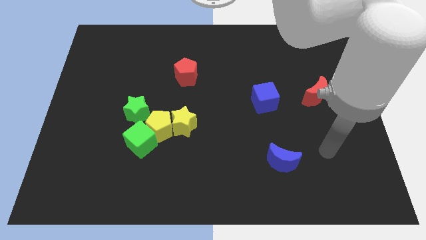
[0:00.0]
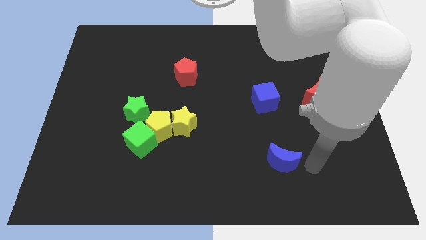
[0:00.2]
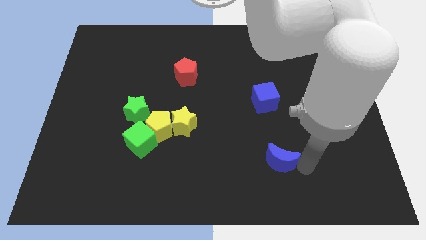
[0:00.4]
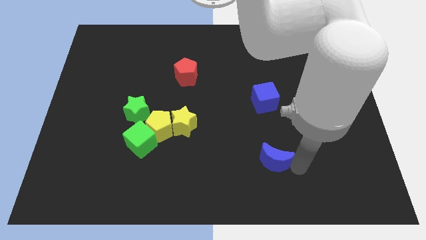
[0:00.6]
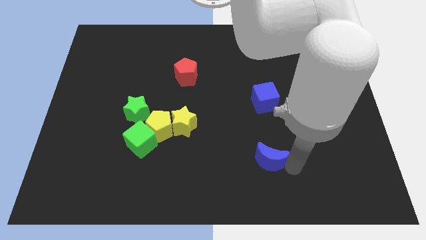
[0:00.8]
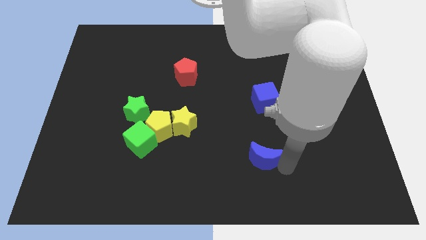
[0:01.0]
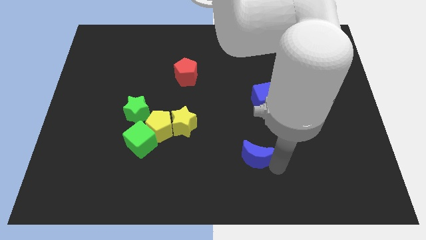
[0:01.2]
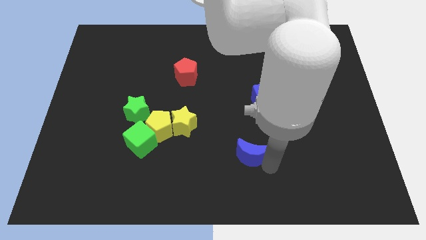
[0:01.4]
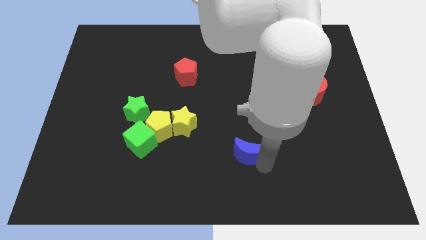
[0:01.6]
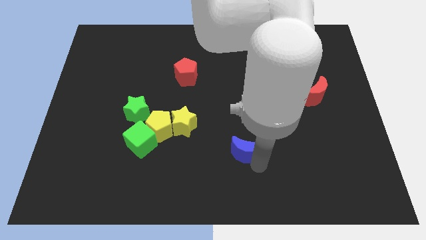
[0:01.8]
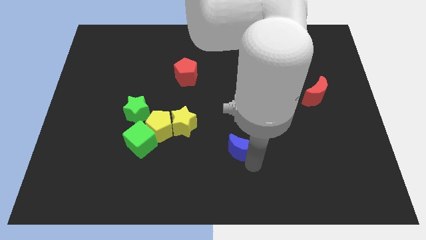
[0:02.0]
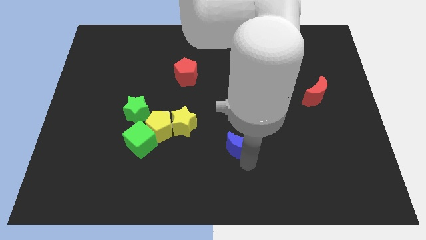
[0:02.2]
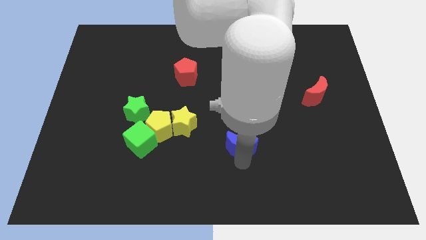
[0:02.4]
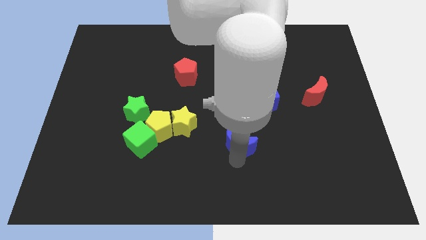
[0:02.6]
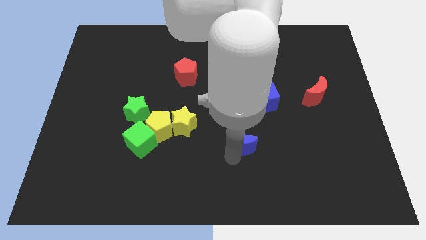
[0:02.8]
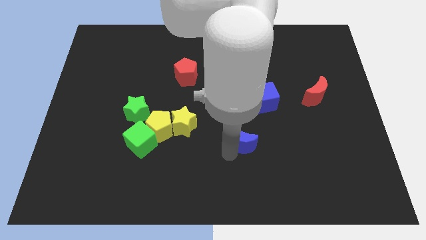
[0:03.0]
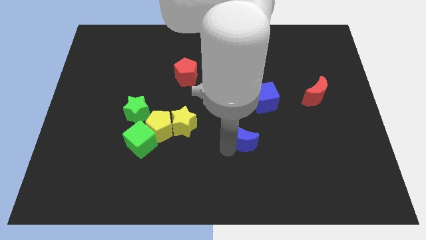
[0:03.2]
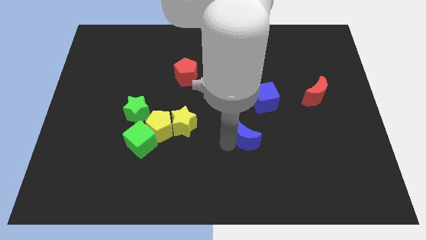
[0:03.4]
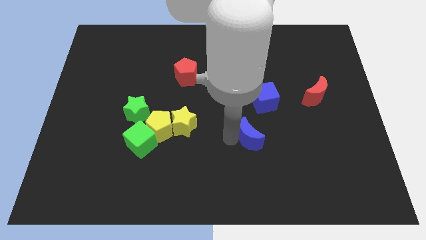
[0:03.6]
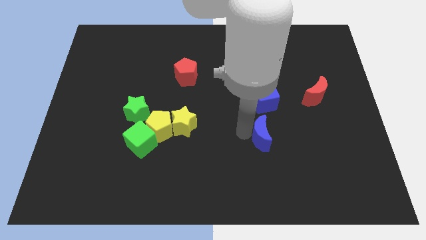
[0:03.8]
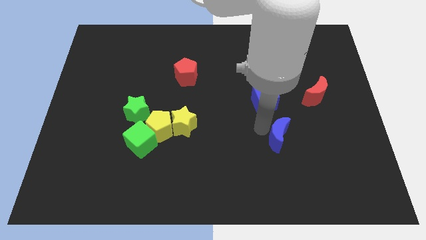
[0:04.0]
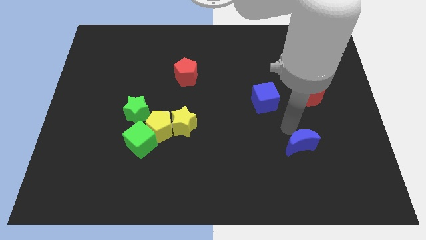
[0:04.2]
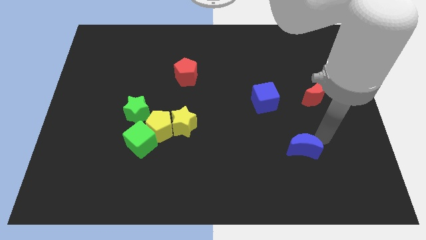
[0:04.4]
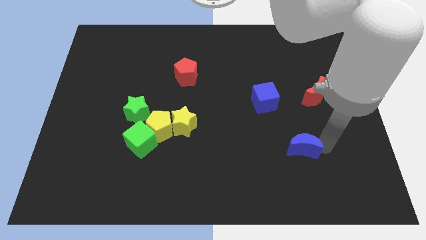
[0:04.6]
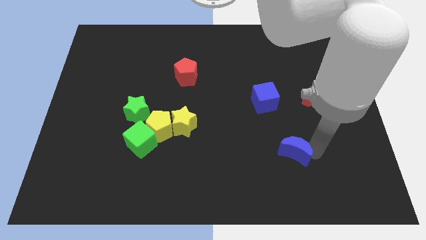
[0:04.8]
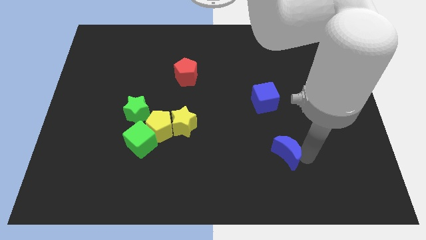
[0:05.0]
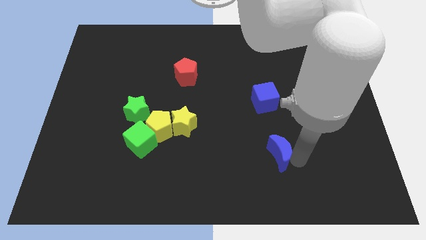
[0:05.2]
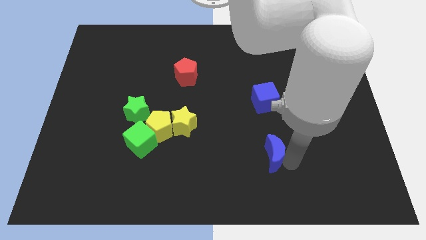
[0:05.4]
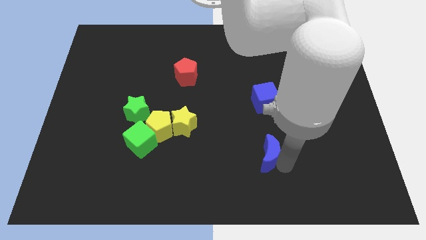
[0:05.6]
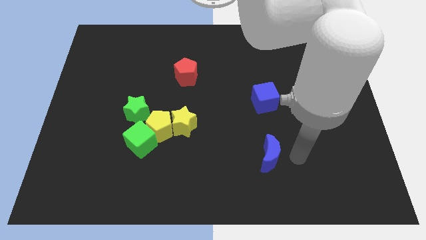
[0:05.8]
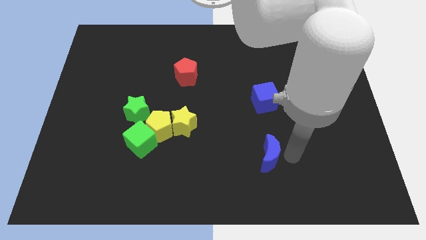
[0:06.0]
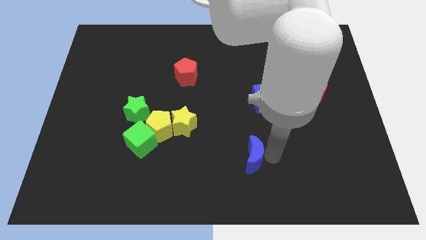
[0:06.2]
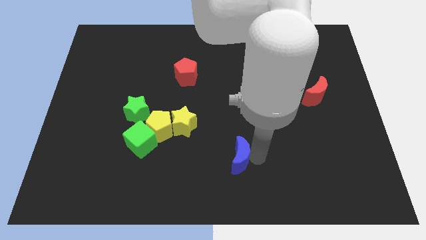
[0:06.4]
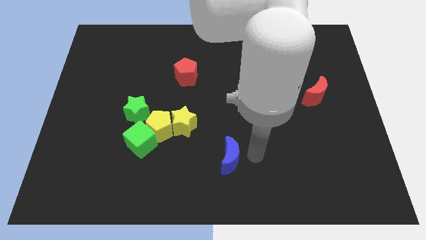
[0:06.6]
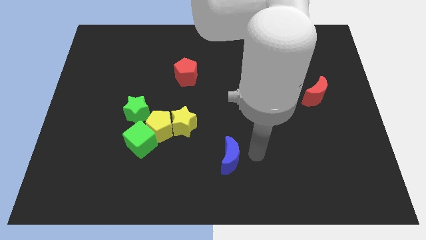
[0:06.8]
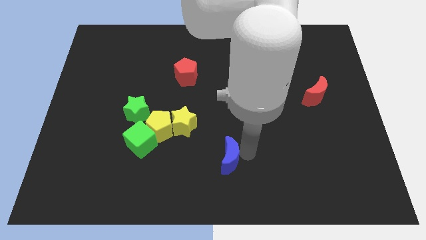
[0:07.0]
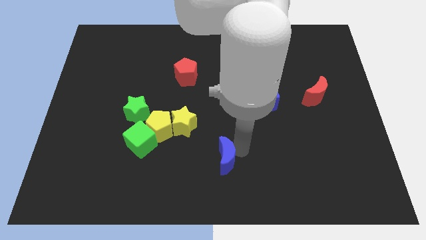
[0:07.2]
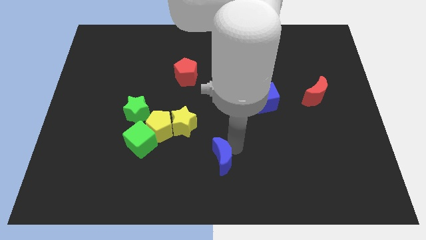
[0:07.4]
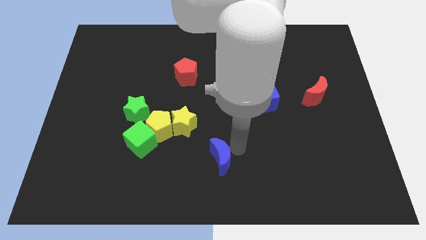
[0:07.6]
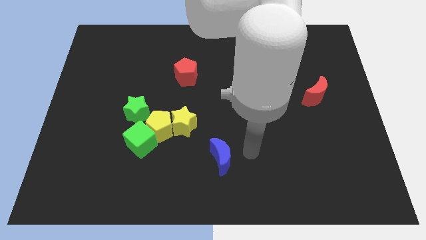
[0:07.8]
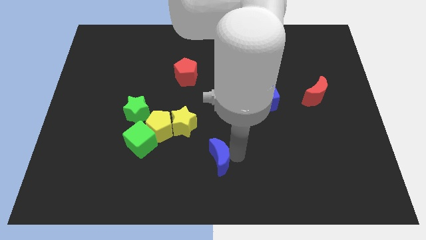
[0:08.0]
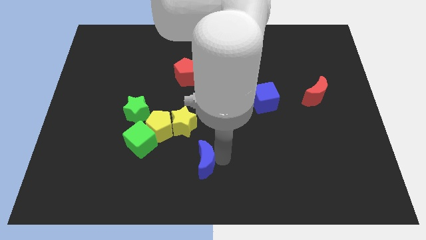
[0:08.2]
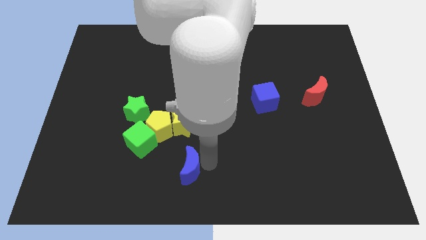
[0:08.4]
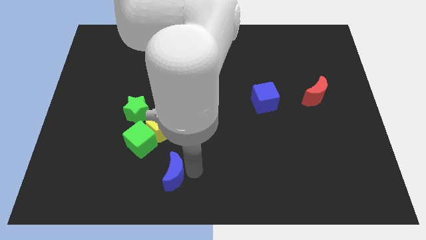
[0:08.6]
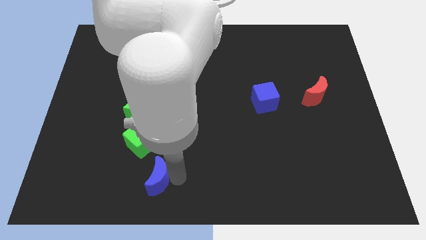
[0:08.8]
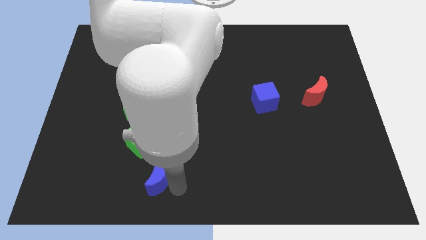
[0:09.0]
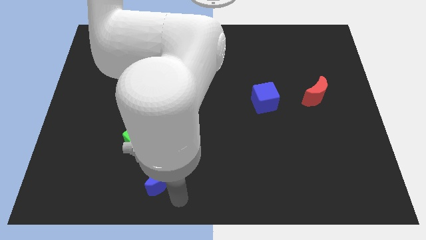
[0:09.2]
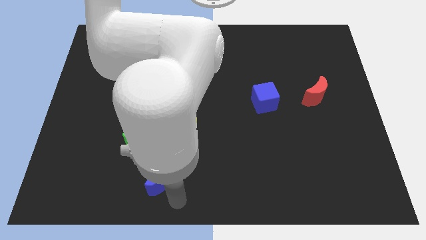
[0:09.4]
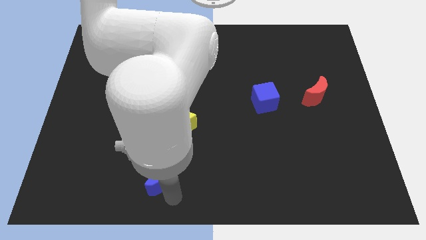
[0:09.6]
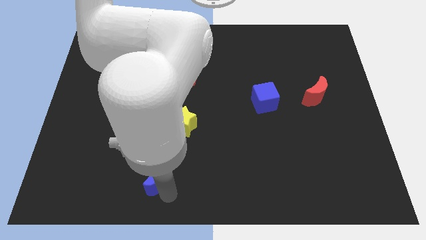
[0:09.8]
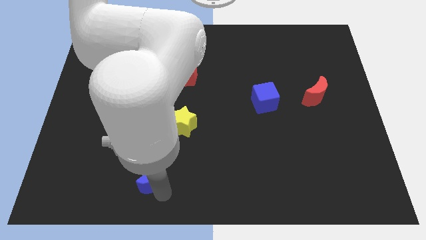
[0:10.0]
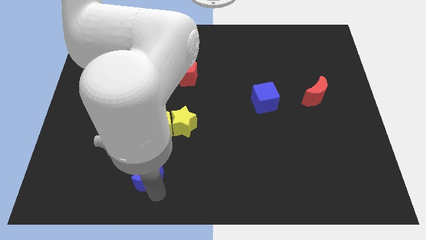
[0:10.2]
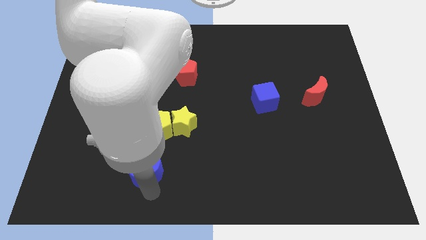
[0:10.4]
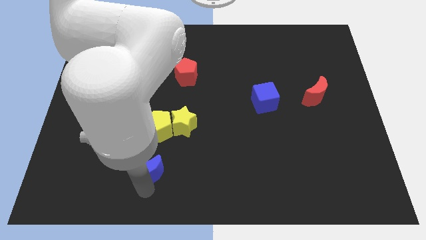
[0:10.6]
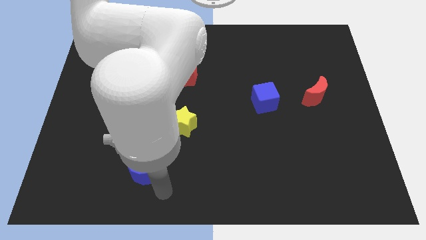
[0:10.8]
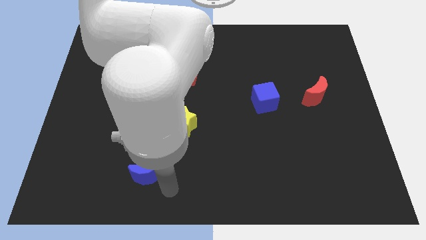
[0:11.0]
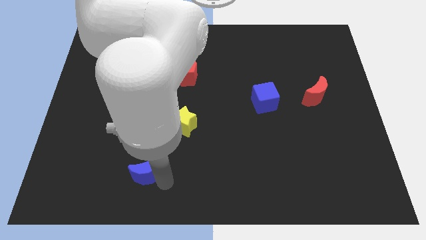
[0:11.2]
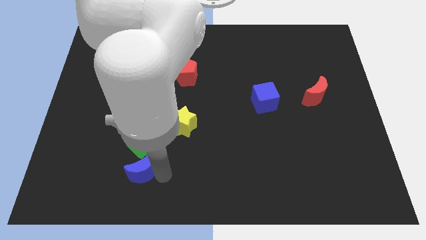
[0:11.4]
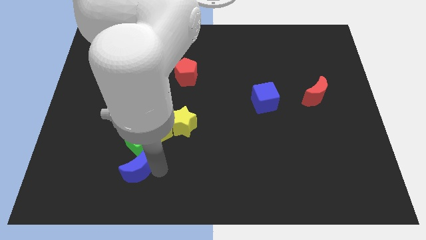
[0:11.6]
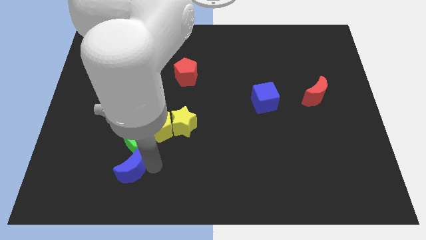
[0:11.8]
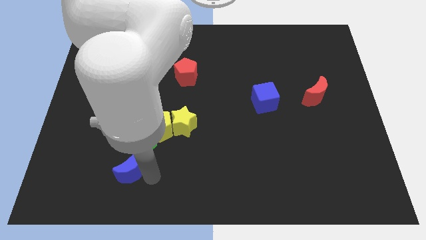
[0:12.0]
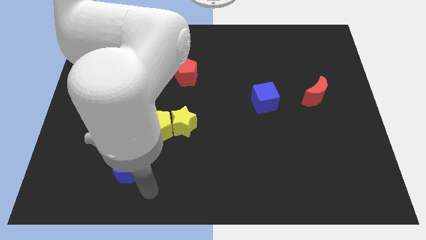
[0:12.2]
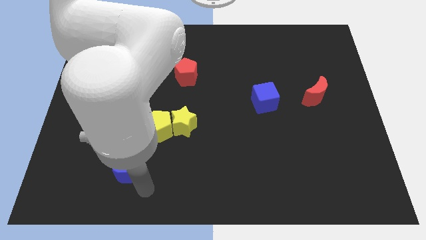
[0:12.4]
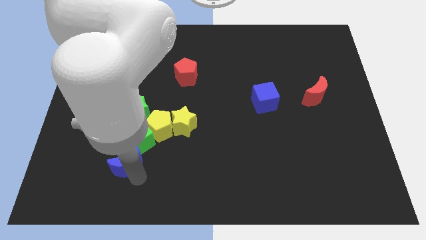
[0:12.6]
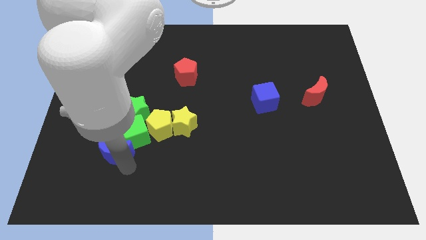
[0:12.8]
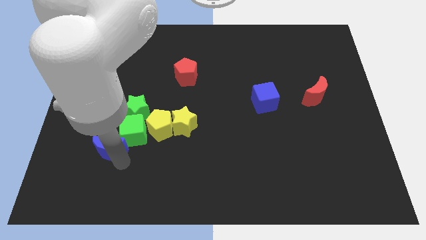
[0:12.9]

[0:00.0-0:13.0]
push the blue moon diagonally down and to the left of the green star

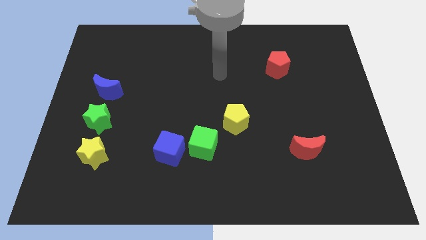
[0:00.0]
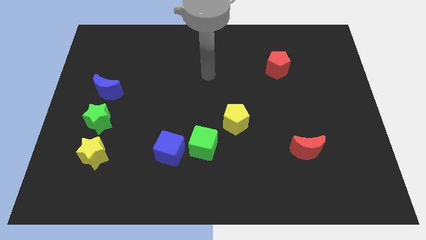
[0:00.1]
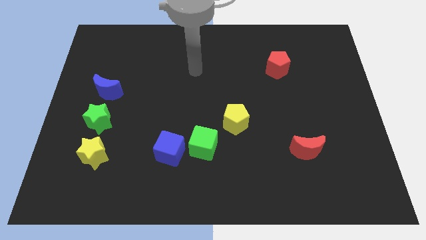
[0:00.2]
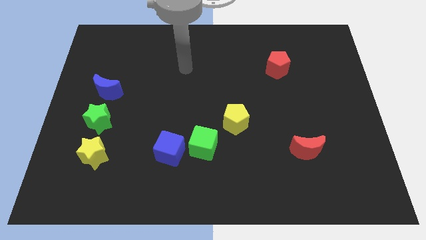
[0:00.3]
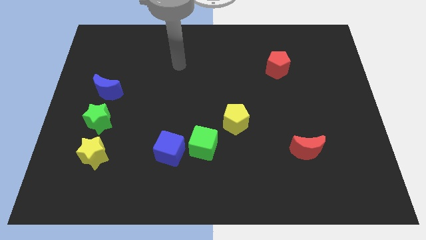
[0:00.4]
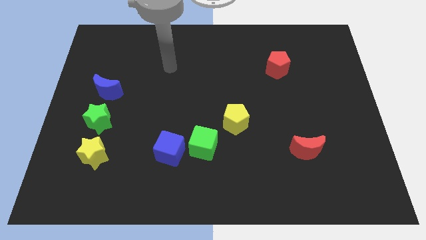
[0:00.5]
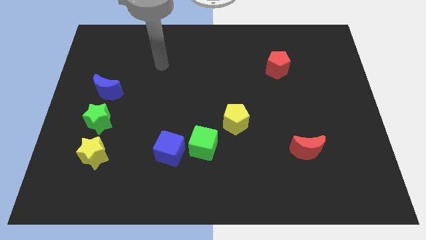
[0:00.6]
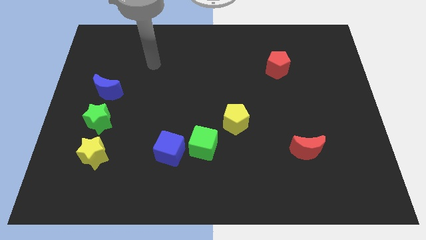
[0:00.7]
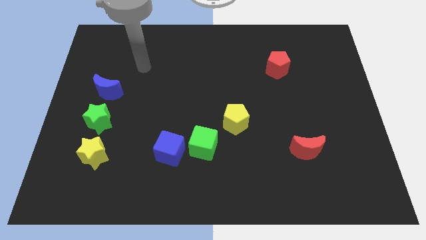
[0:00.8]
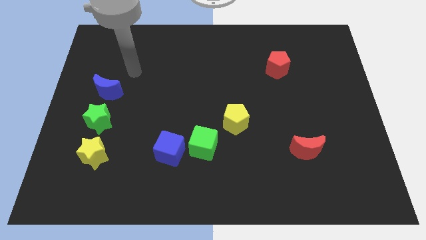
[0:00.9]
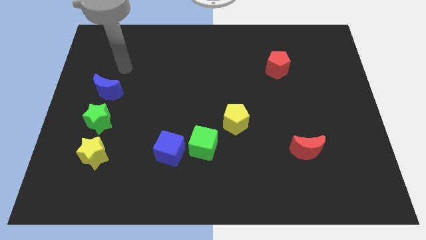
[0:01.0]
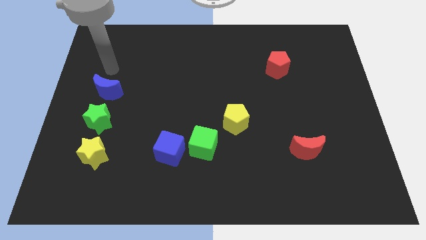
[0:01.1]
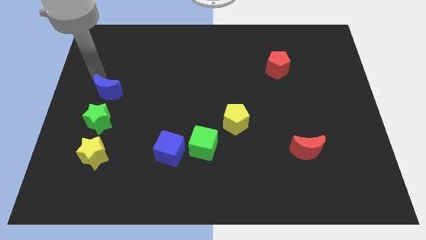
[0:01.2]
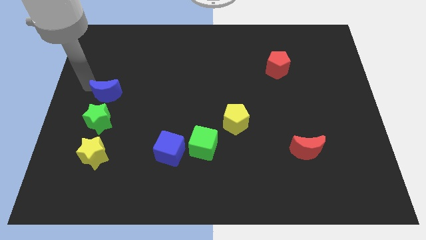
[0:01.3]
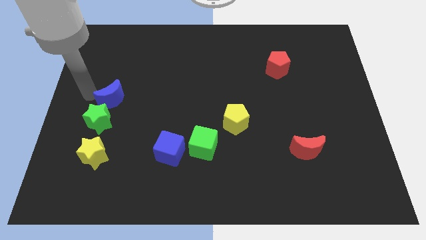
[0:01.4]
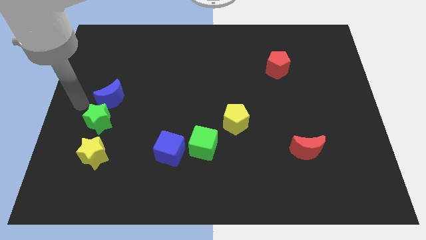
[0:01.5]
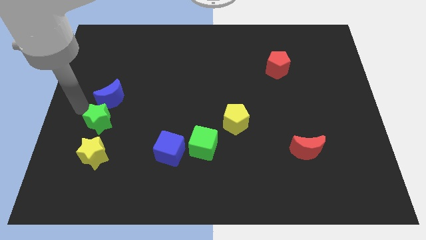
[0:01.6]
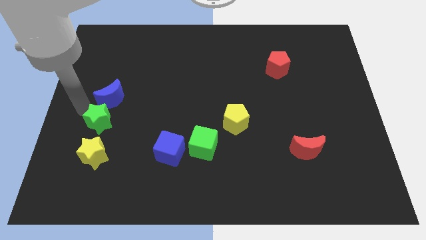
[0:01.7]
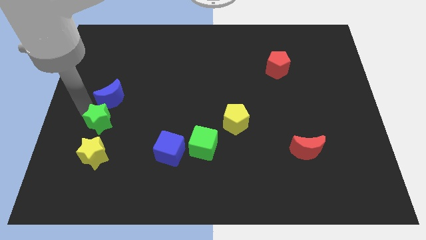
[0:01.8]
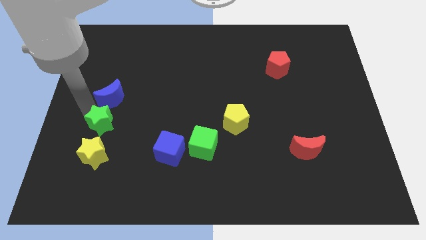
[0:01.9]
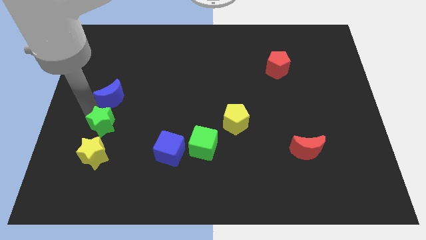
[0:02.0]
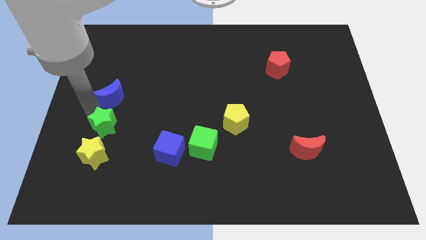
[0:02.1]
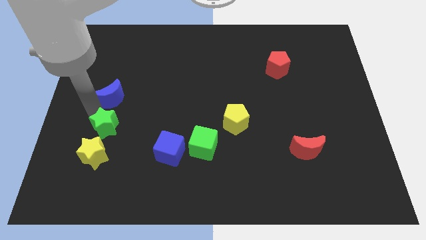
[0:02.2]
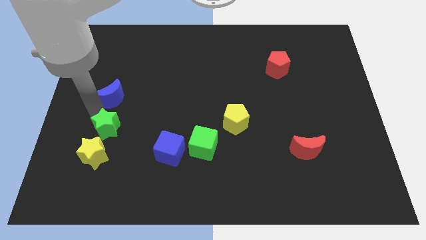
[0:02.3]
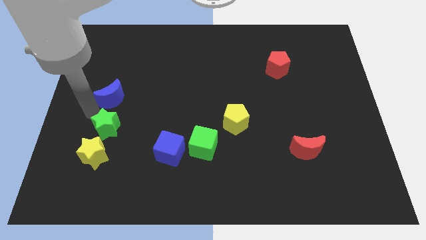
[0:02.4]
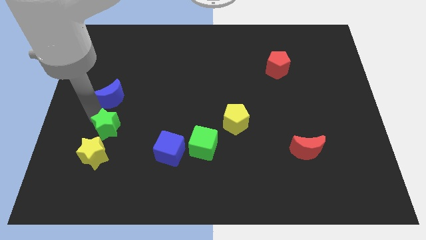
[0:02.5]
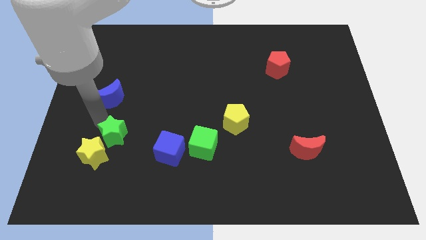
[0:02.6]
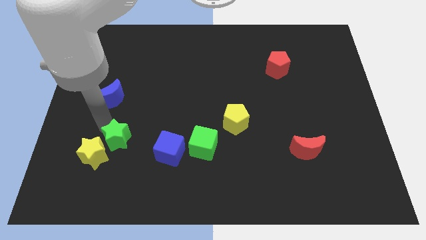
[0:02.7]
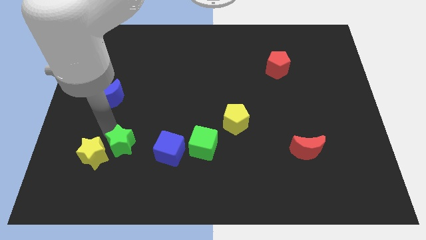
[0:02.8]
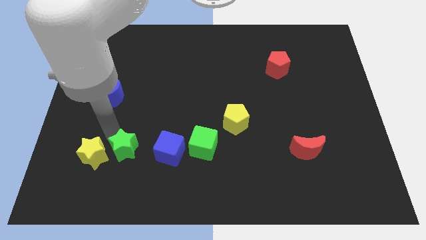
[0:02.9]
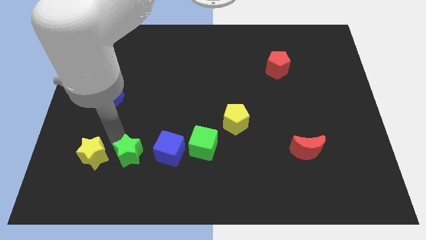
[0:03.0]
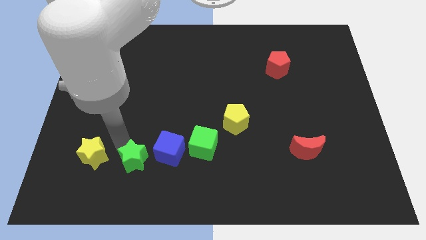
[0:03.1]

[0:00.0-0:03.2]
move the green star to the bottom left of the blue cube
